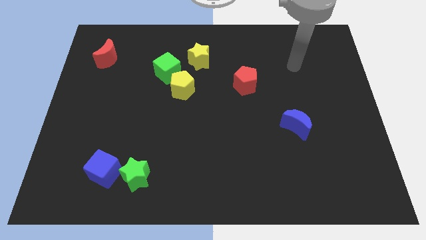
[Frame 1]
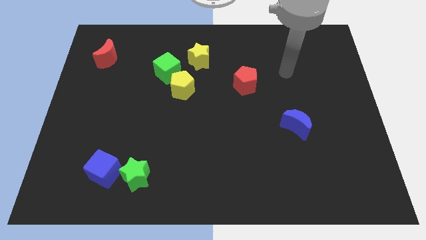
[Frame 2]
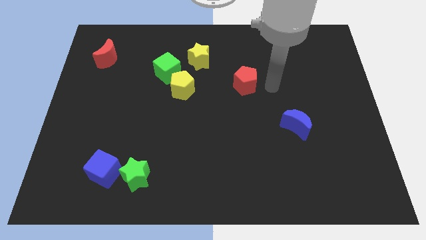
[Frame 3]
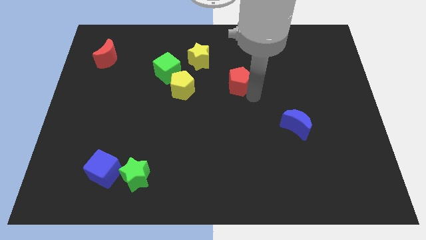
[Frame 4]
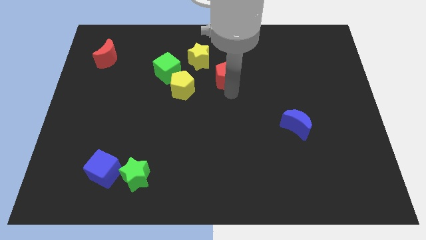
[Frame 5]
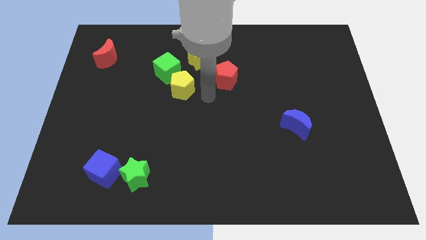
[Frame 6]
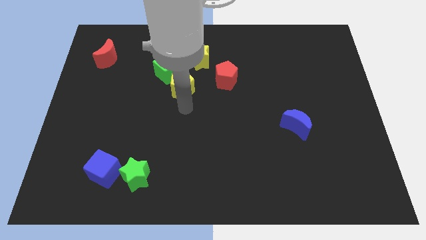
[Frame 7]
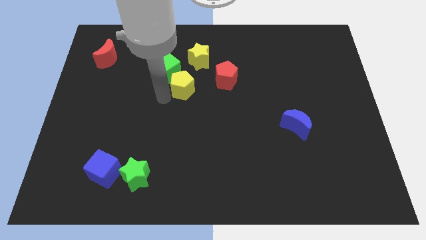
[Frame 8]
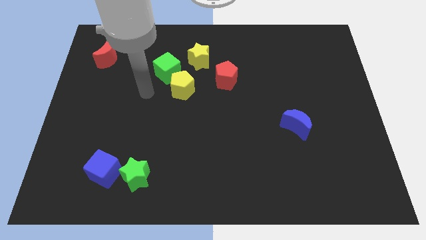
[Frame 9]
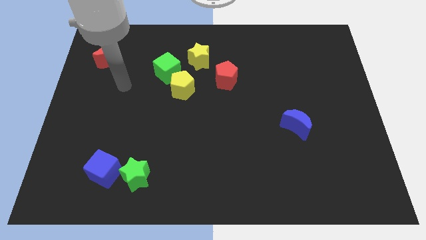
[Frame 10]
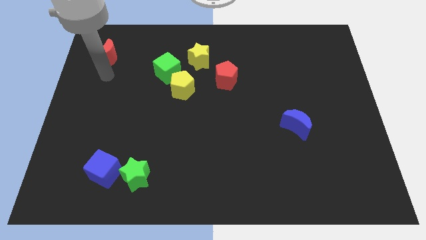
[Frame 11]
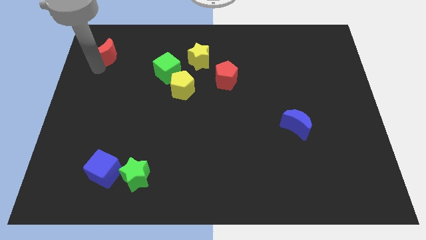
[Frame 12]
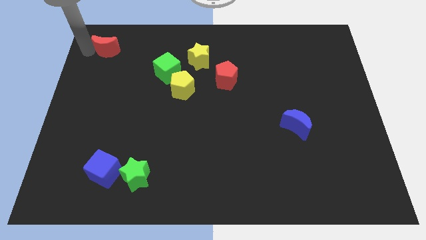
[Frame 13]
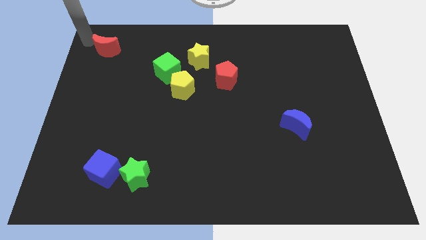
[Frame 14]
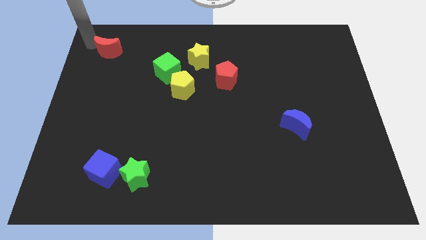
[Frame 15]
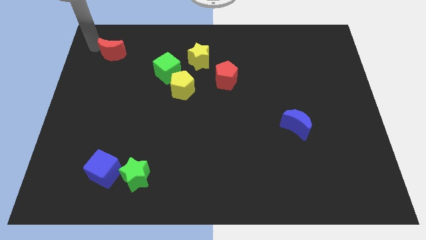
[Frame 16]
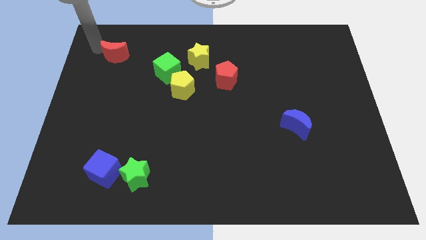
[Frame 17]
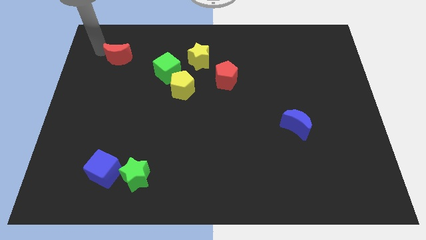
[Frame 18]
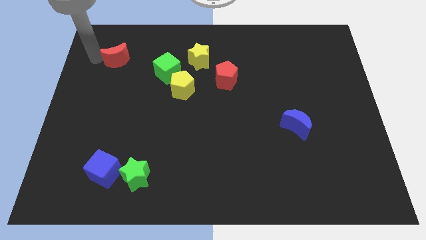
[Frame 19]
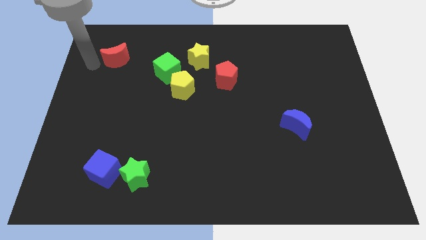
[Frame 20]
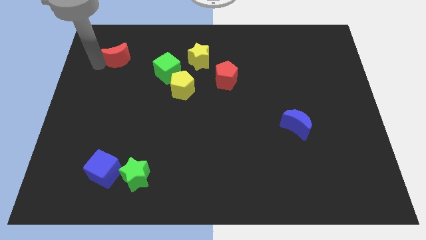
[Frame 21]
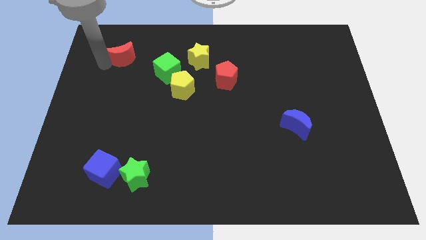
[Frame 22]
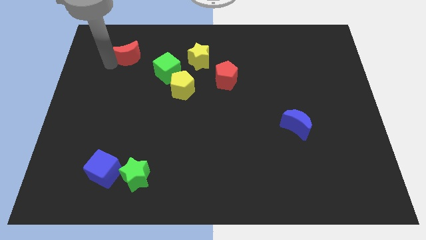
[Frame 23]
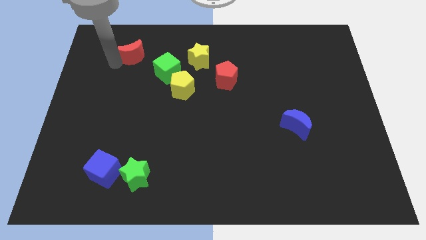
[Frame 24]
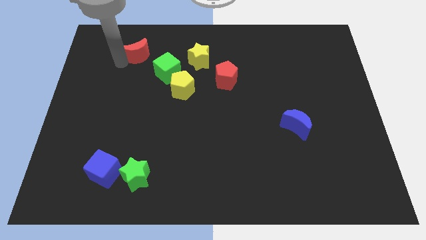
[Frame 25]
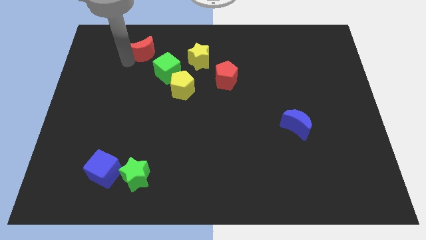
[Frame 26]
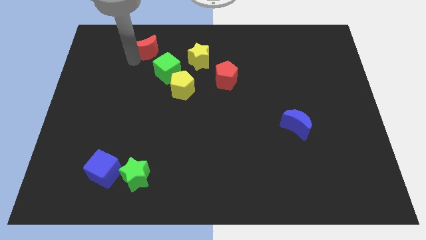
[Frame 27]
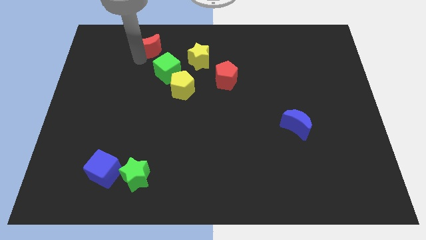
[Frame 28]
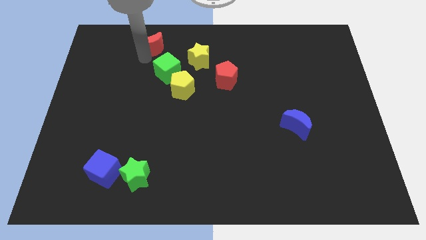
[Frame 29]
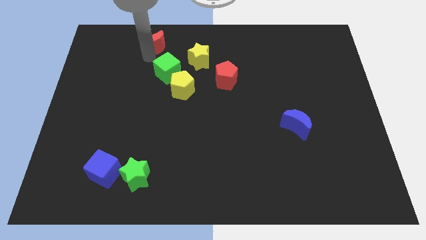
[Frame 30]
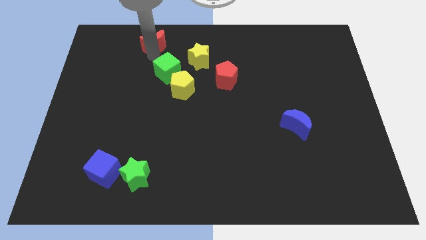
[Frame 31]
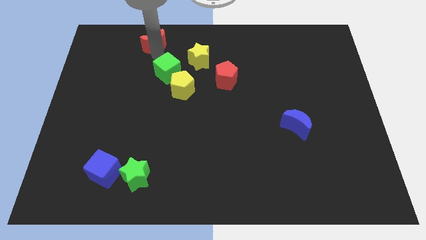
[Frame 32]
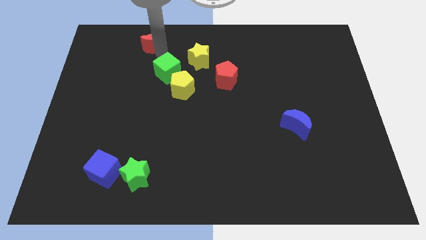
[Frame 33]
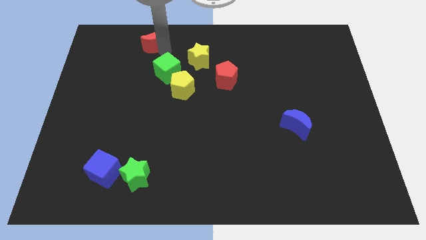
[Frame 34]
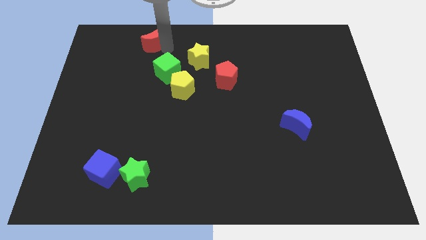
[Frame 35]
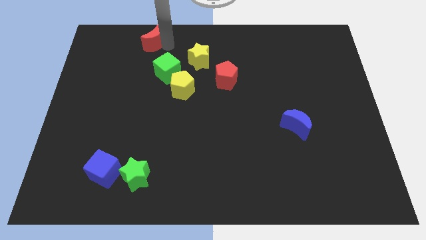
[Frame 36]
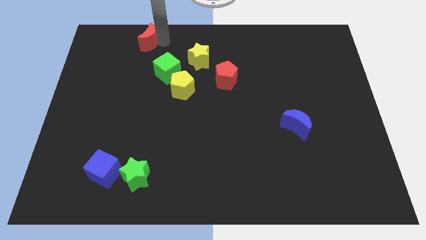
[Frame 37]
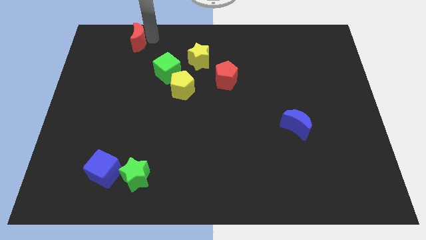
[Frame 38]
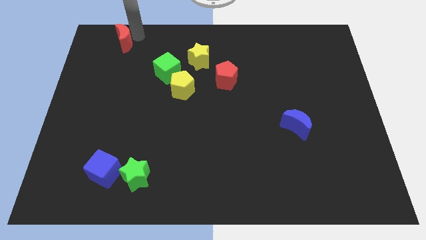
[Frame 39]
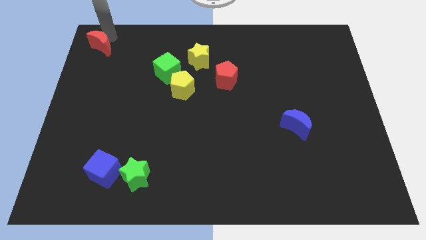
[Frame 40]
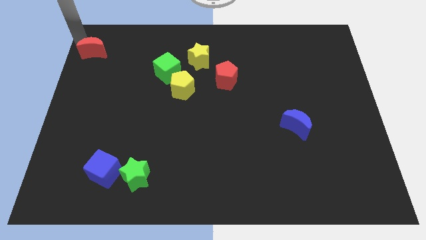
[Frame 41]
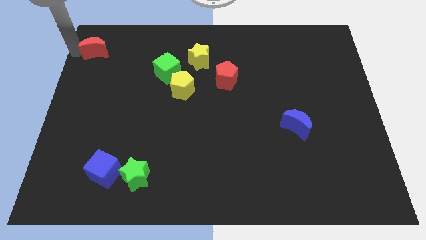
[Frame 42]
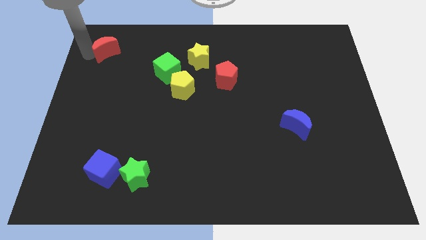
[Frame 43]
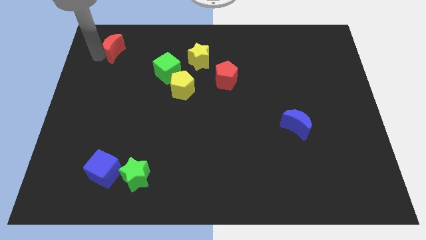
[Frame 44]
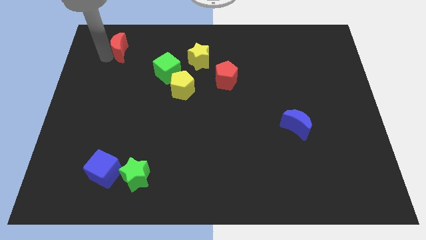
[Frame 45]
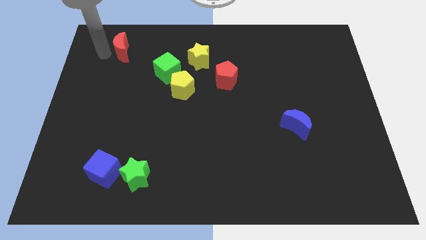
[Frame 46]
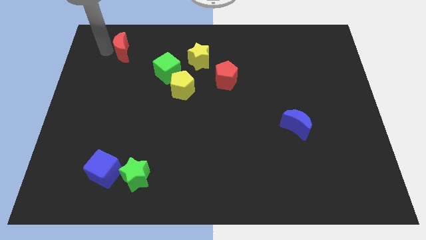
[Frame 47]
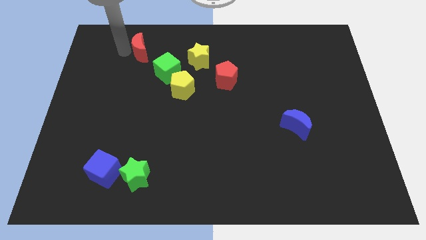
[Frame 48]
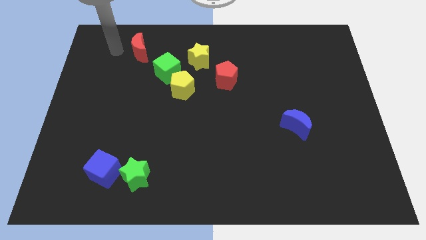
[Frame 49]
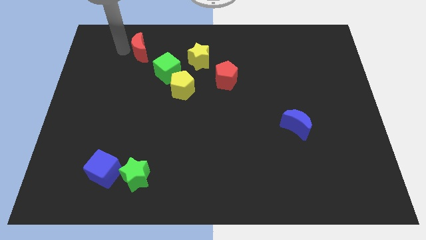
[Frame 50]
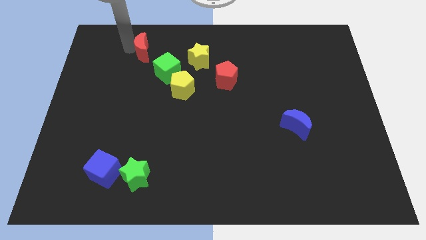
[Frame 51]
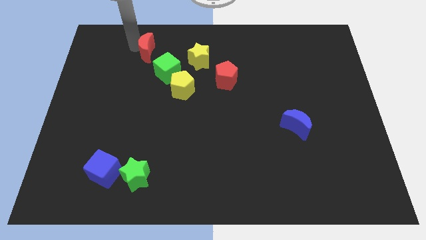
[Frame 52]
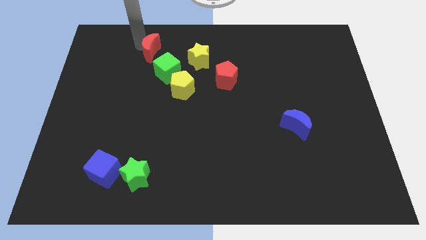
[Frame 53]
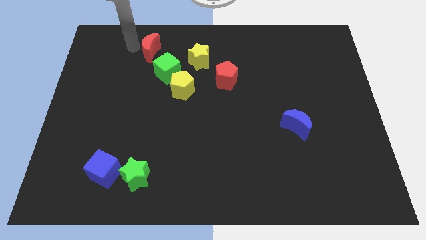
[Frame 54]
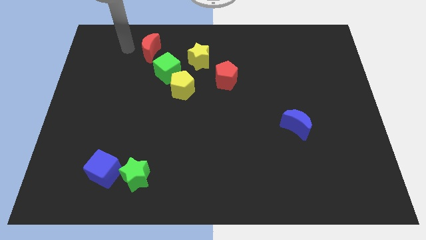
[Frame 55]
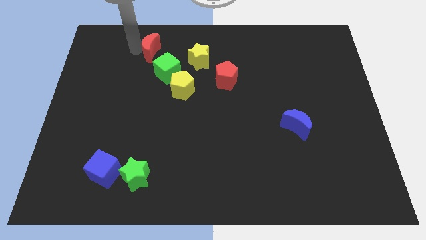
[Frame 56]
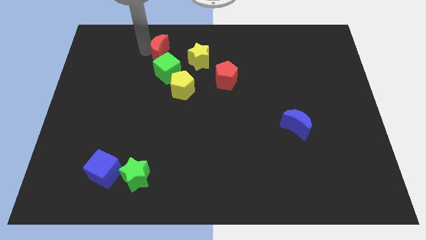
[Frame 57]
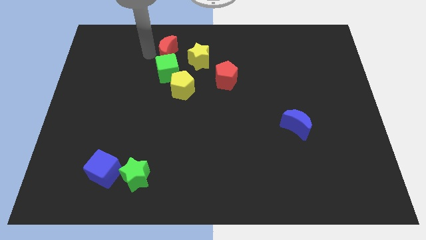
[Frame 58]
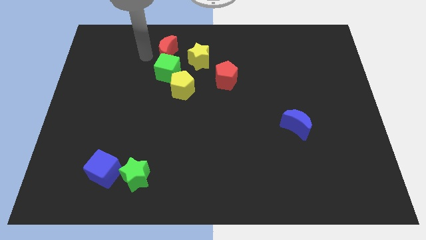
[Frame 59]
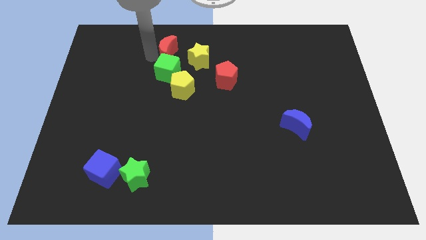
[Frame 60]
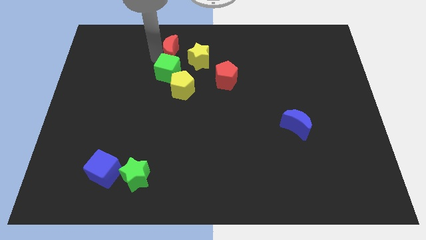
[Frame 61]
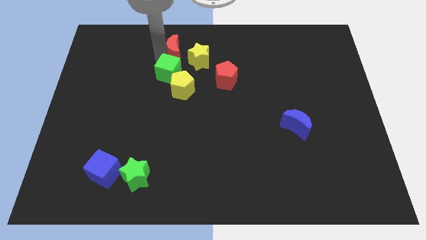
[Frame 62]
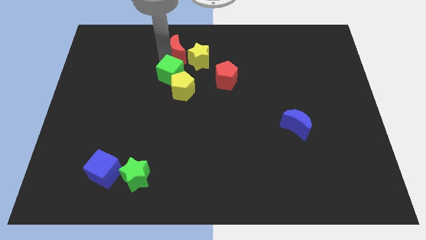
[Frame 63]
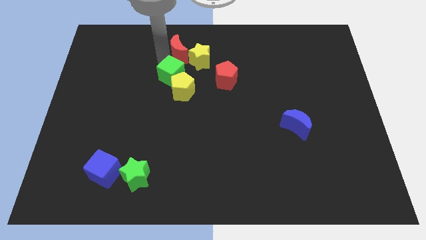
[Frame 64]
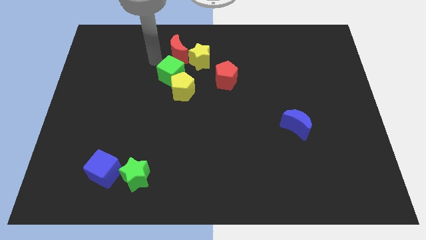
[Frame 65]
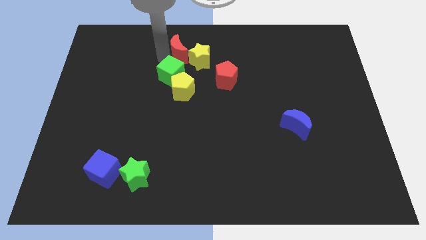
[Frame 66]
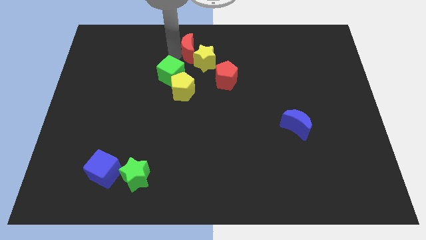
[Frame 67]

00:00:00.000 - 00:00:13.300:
push the red moon to the right

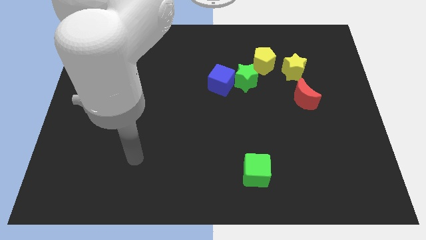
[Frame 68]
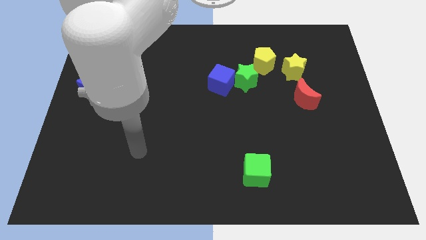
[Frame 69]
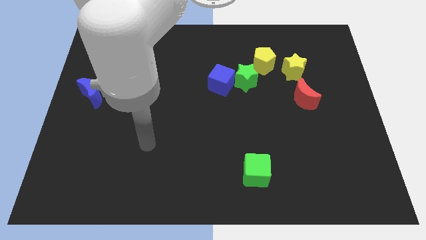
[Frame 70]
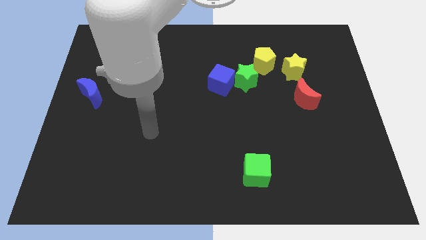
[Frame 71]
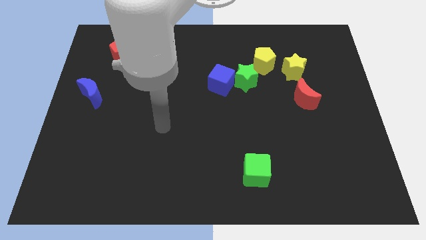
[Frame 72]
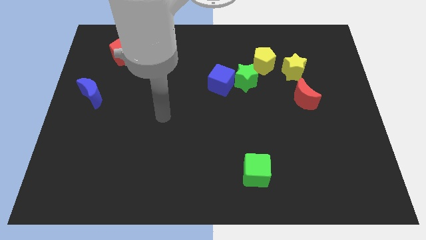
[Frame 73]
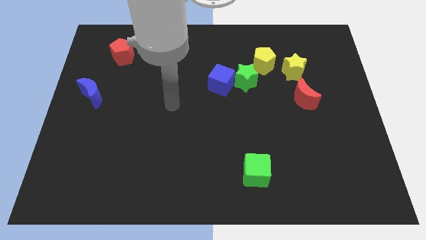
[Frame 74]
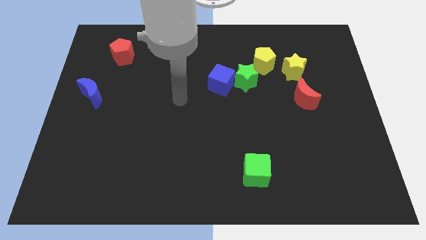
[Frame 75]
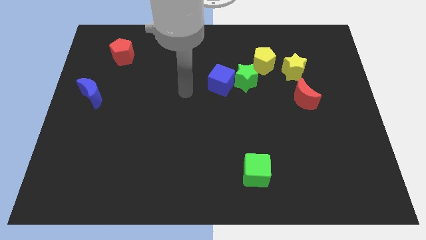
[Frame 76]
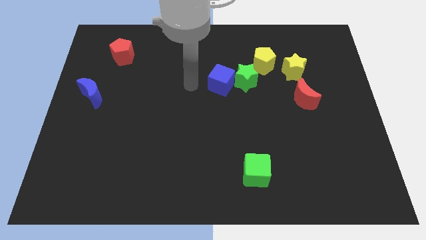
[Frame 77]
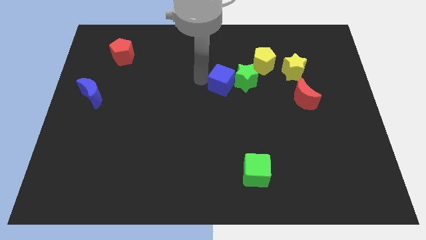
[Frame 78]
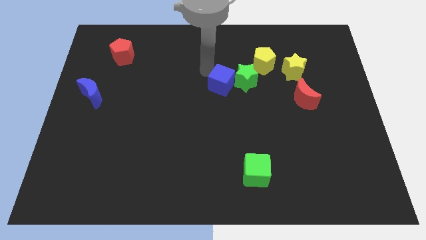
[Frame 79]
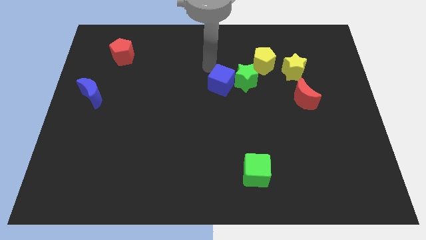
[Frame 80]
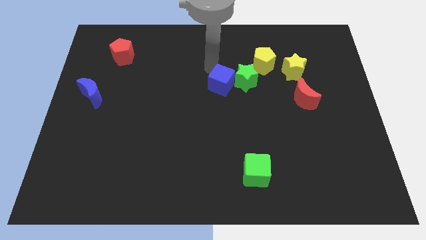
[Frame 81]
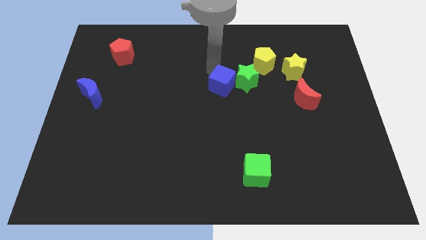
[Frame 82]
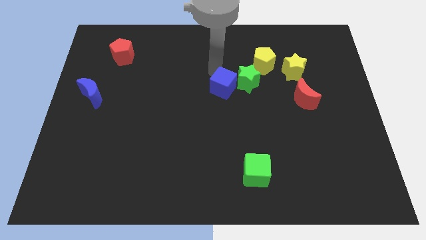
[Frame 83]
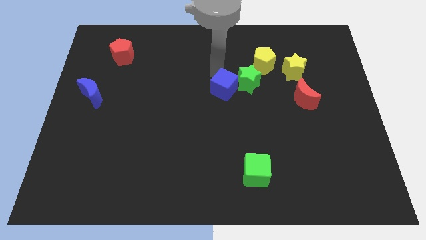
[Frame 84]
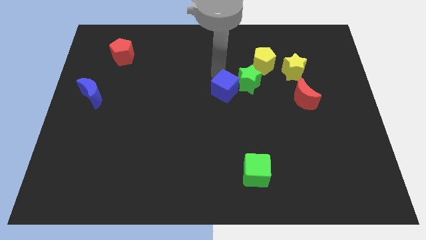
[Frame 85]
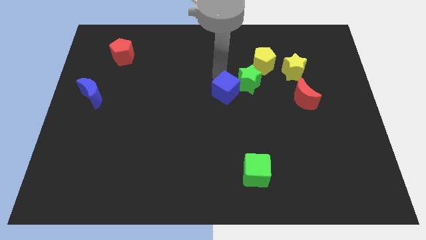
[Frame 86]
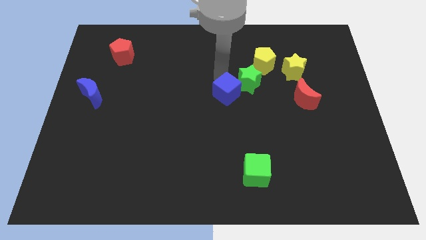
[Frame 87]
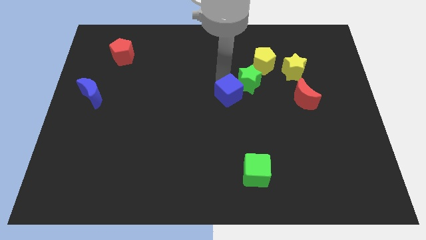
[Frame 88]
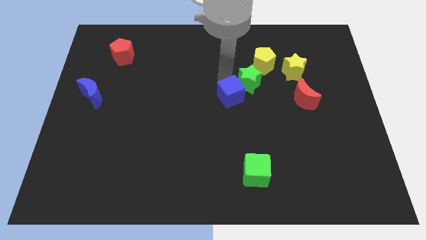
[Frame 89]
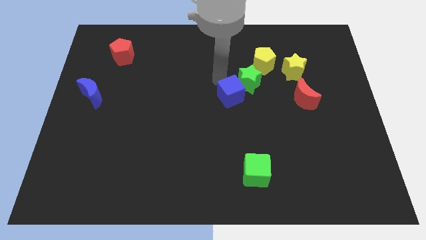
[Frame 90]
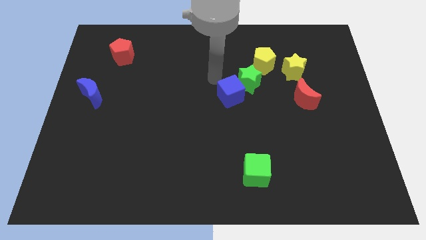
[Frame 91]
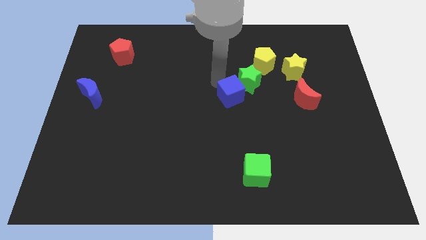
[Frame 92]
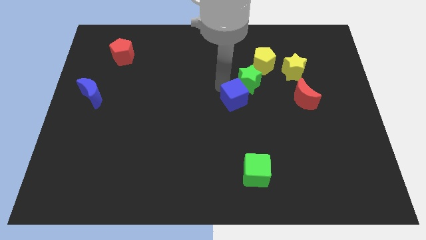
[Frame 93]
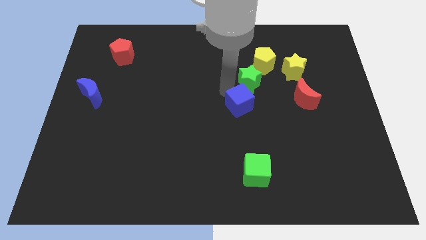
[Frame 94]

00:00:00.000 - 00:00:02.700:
slide the blue cube down and then to the right a bit
